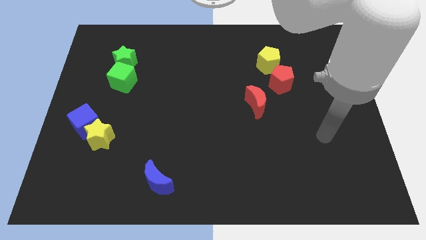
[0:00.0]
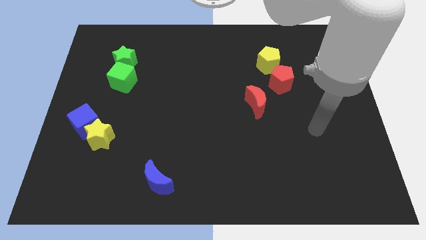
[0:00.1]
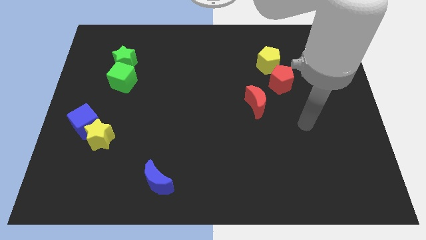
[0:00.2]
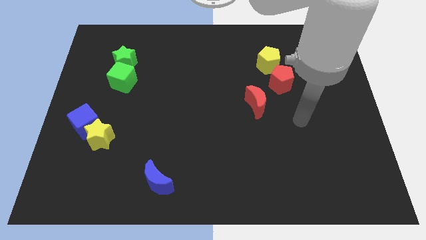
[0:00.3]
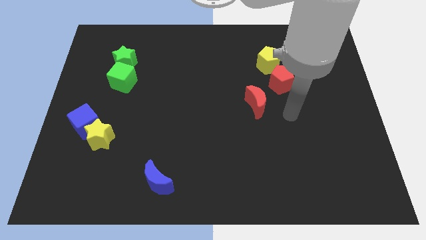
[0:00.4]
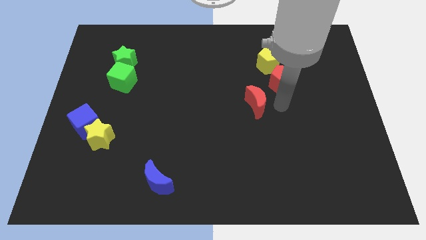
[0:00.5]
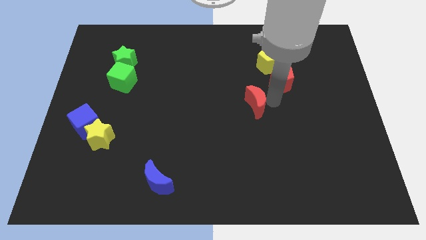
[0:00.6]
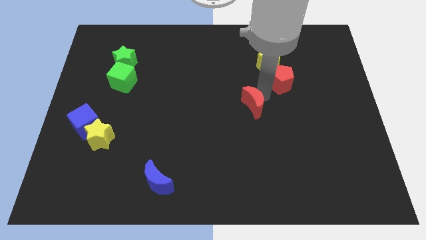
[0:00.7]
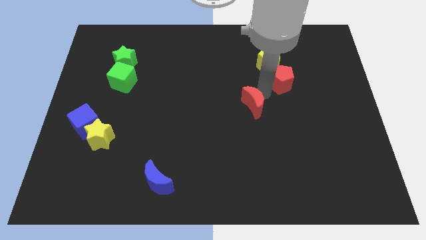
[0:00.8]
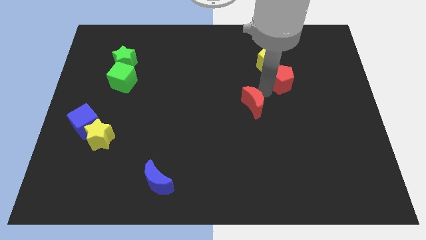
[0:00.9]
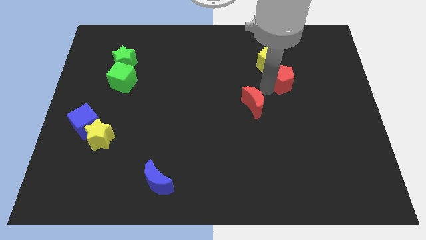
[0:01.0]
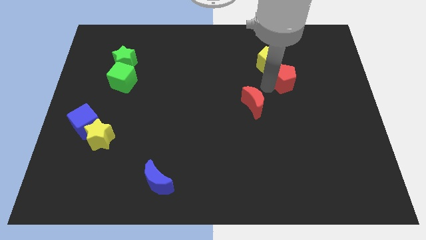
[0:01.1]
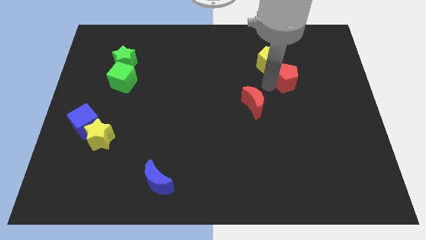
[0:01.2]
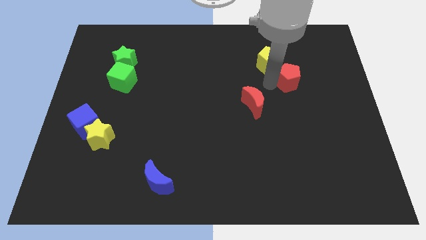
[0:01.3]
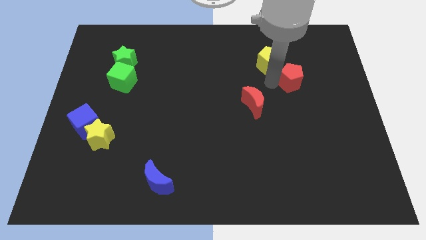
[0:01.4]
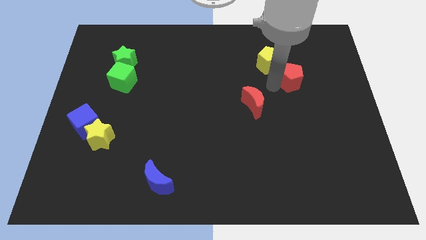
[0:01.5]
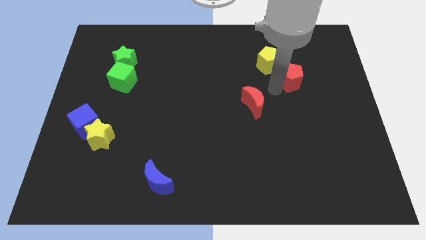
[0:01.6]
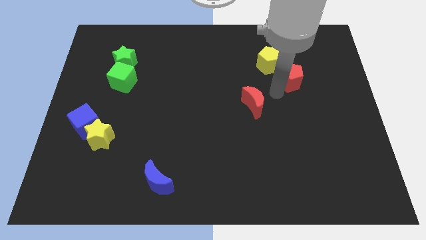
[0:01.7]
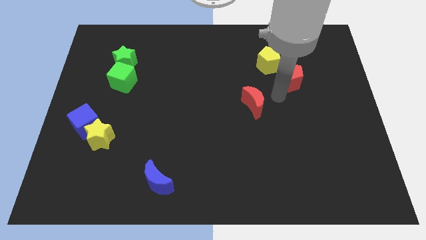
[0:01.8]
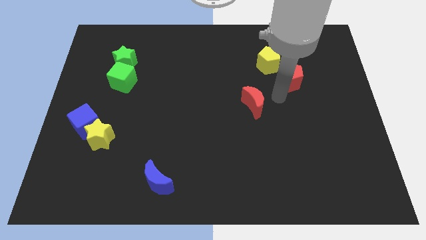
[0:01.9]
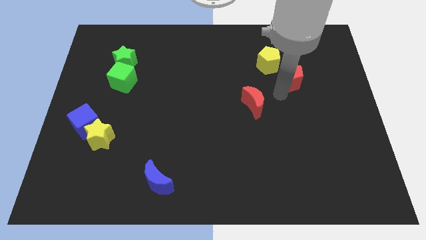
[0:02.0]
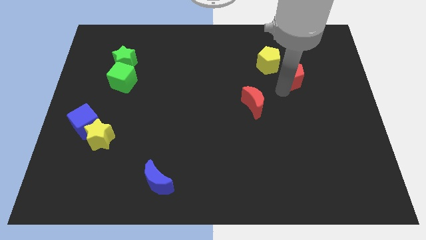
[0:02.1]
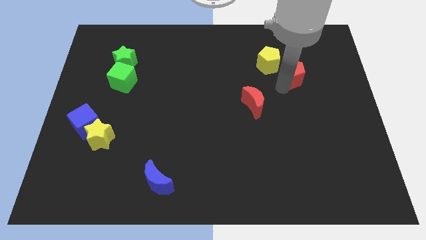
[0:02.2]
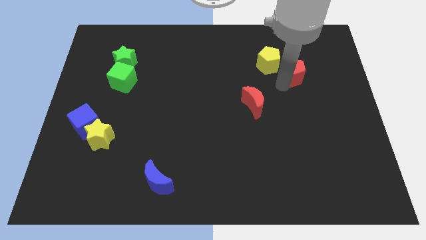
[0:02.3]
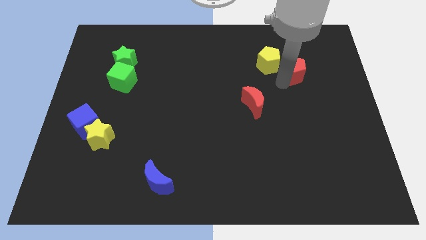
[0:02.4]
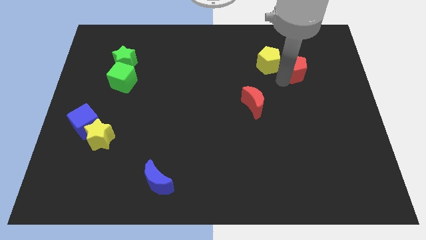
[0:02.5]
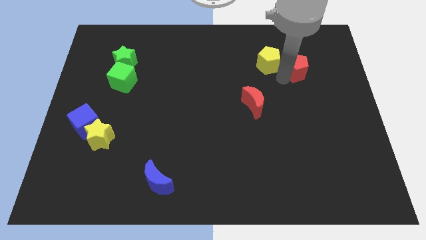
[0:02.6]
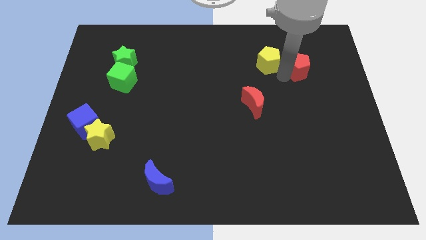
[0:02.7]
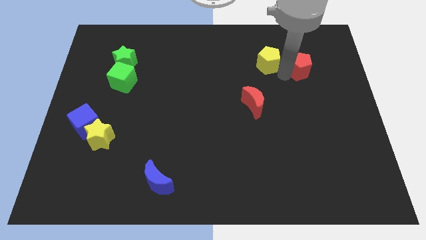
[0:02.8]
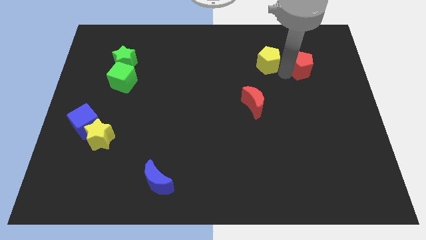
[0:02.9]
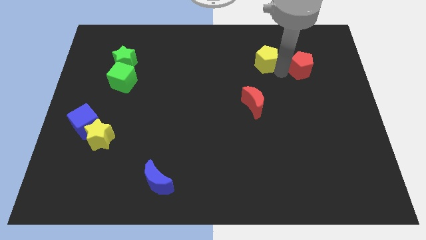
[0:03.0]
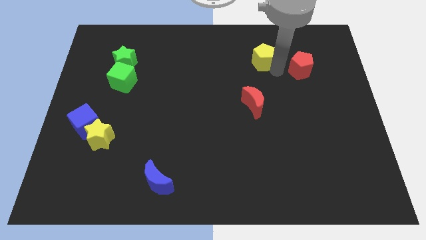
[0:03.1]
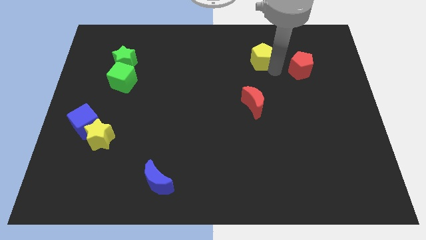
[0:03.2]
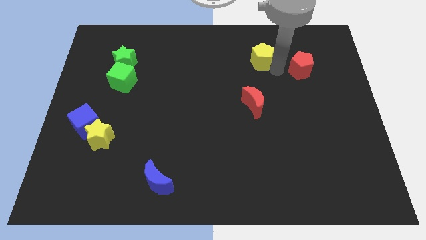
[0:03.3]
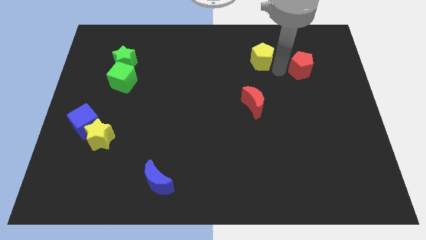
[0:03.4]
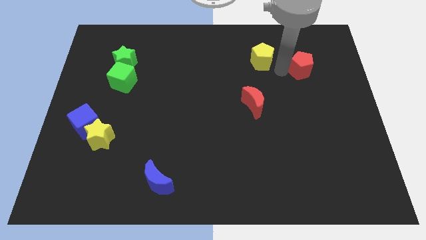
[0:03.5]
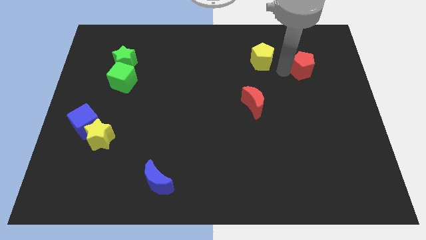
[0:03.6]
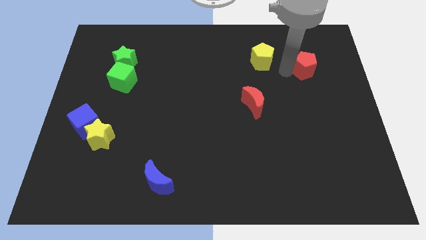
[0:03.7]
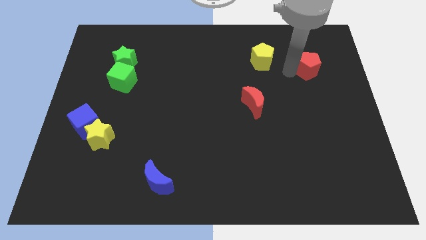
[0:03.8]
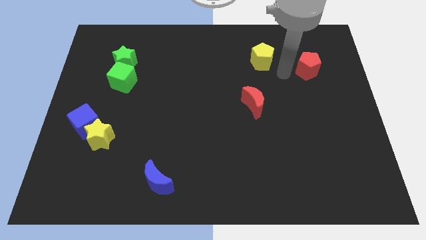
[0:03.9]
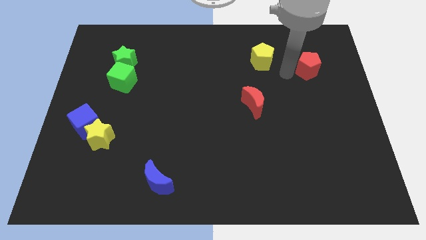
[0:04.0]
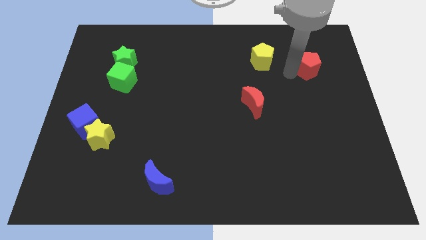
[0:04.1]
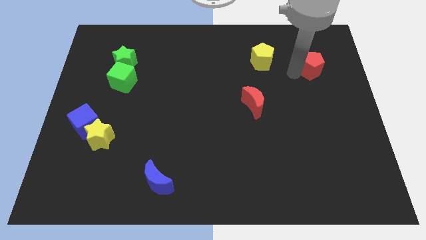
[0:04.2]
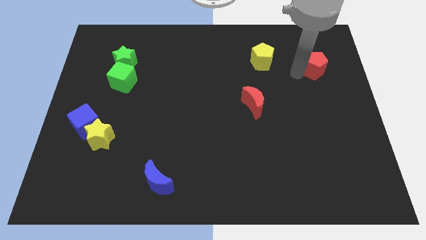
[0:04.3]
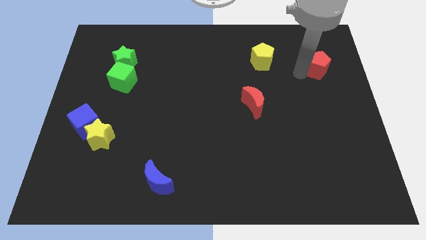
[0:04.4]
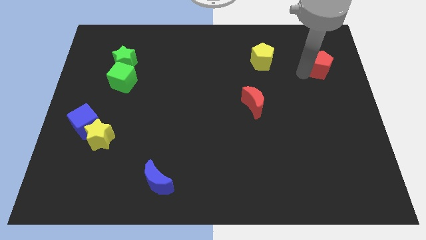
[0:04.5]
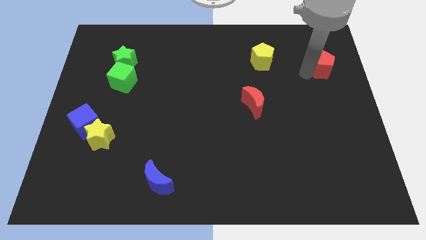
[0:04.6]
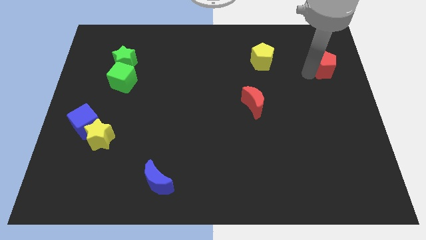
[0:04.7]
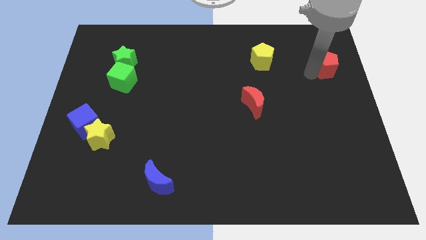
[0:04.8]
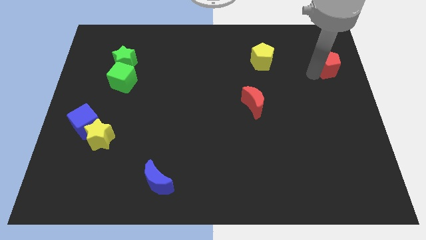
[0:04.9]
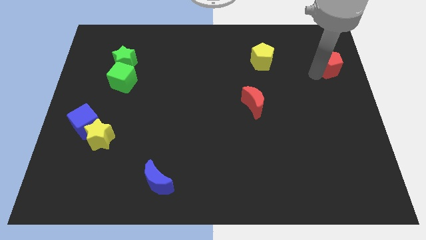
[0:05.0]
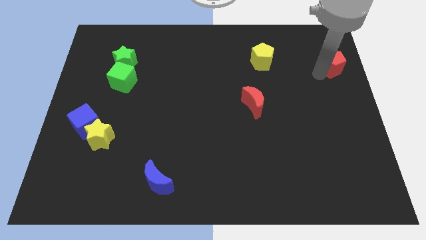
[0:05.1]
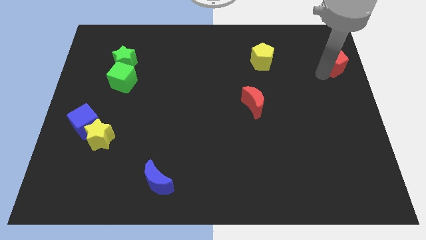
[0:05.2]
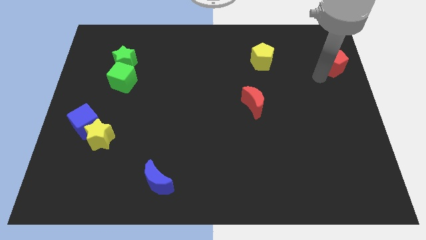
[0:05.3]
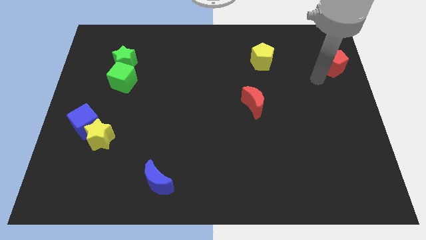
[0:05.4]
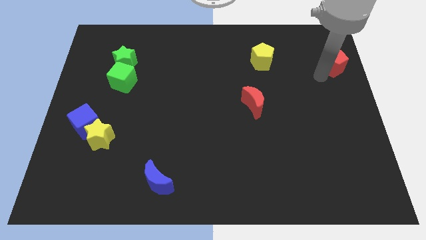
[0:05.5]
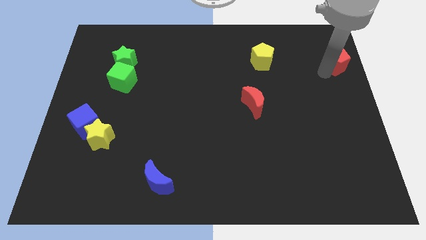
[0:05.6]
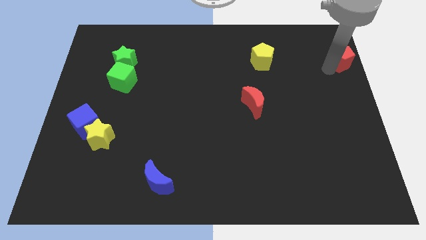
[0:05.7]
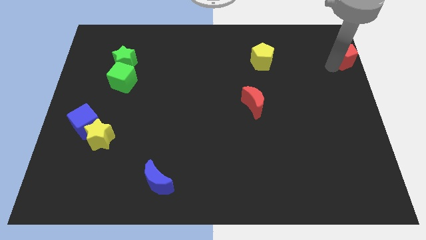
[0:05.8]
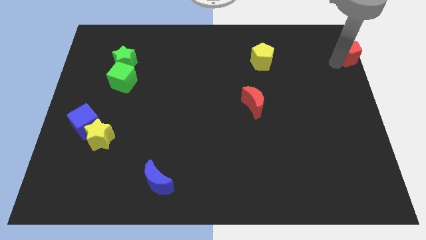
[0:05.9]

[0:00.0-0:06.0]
put the red pentagon to the upper right corner
